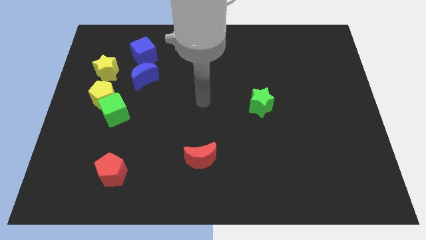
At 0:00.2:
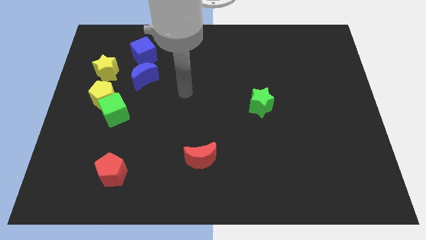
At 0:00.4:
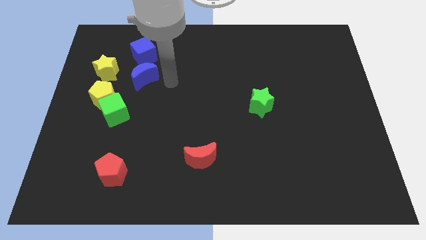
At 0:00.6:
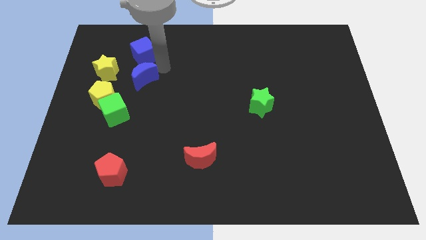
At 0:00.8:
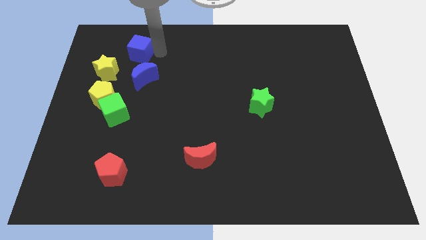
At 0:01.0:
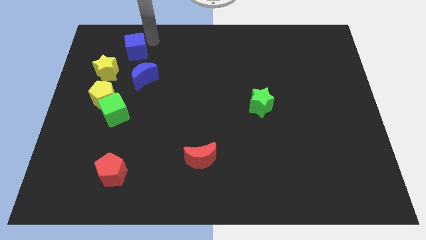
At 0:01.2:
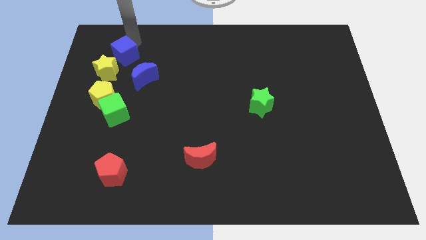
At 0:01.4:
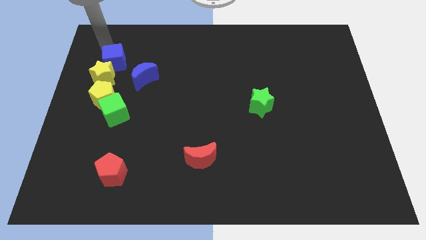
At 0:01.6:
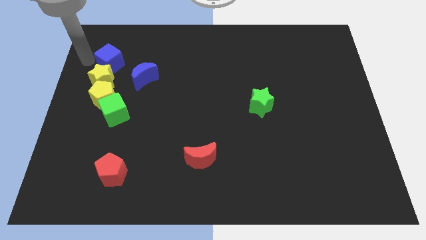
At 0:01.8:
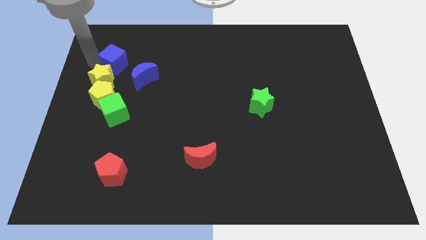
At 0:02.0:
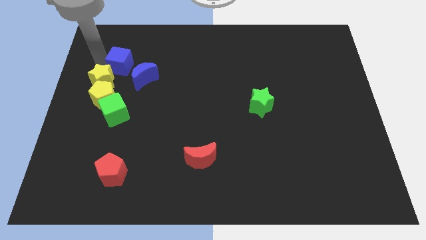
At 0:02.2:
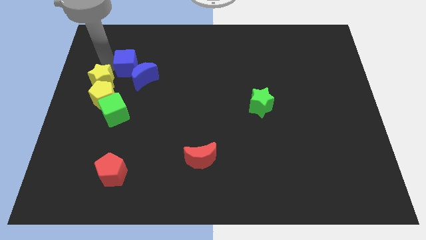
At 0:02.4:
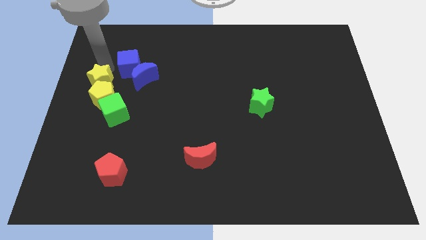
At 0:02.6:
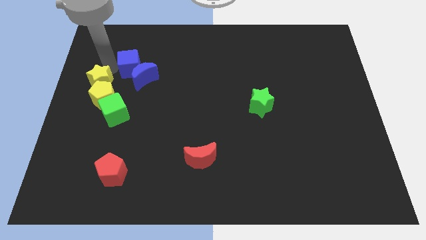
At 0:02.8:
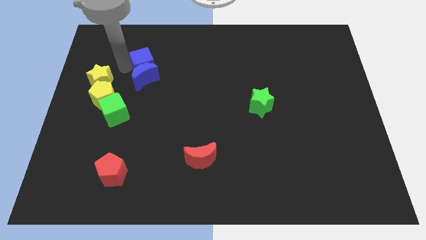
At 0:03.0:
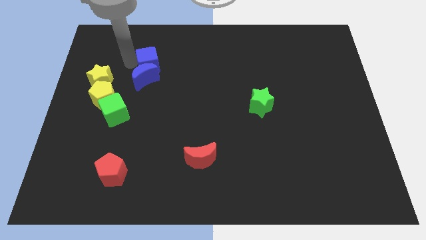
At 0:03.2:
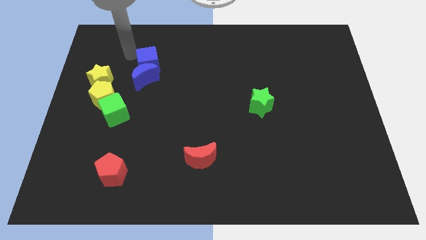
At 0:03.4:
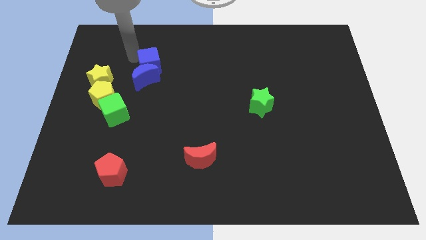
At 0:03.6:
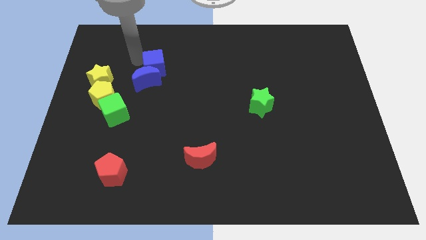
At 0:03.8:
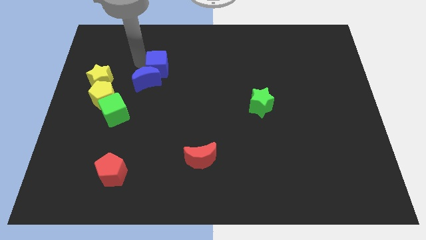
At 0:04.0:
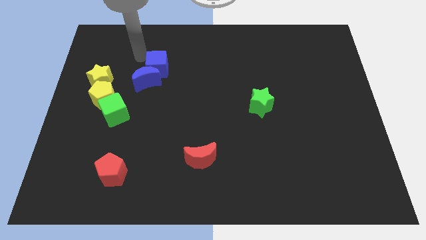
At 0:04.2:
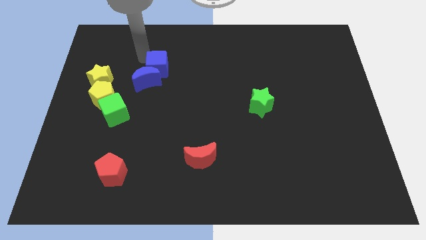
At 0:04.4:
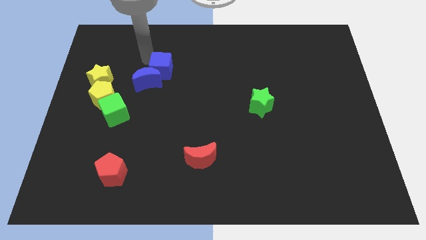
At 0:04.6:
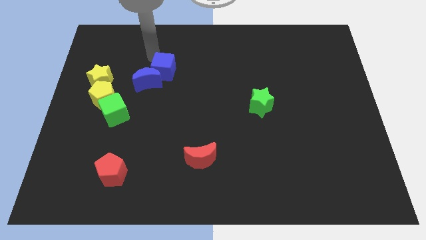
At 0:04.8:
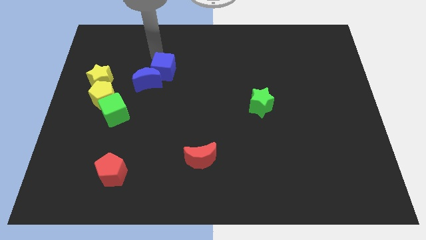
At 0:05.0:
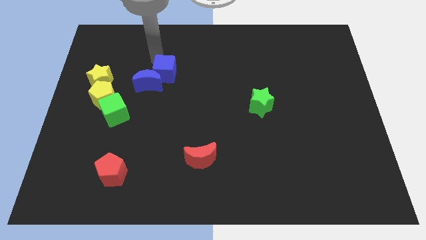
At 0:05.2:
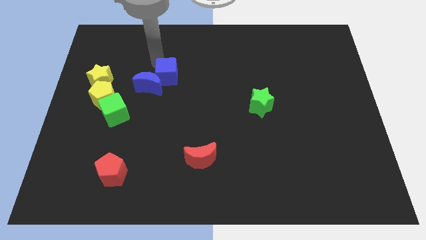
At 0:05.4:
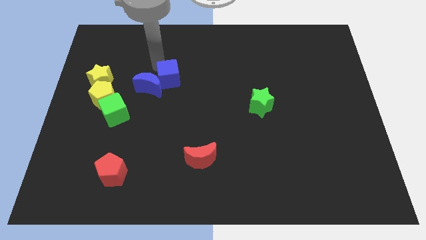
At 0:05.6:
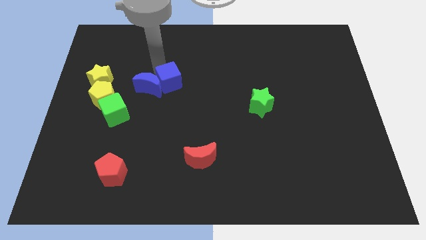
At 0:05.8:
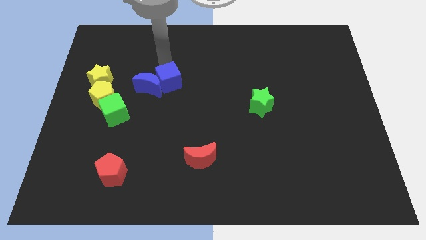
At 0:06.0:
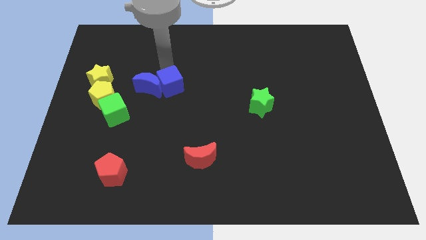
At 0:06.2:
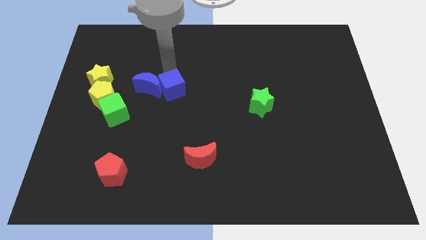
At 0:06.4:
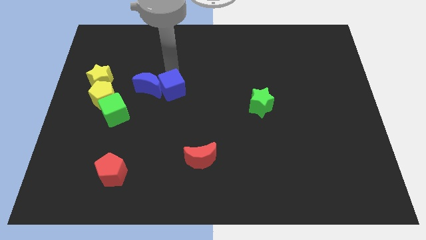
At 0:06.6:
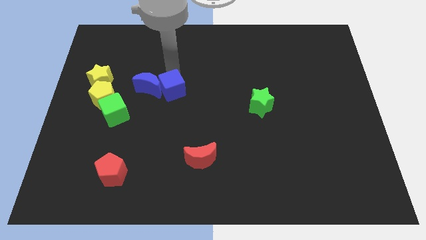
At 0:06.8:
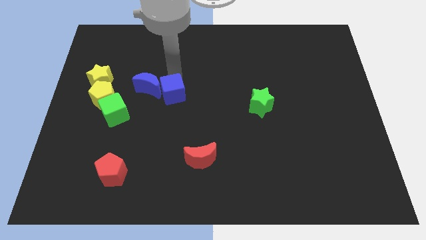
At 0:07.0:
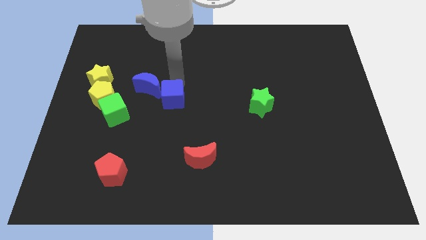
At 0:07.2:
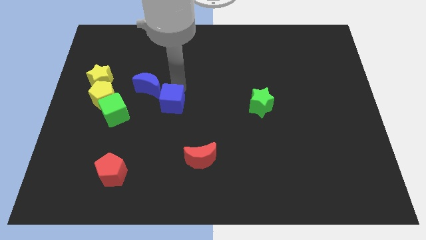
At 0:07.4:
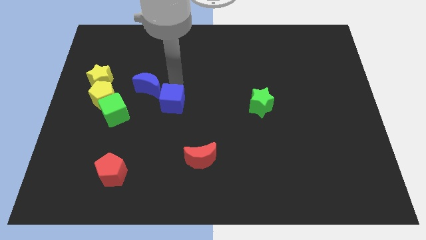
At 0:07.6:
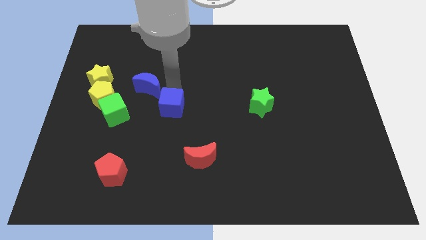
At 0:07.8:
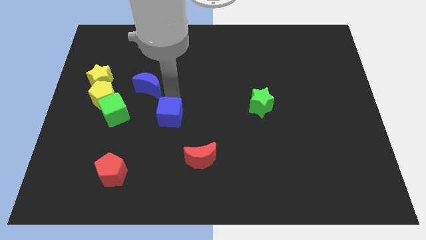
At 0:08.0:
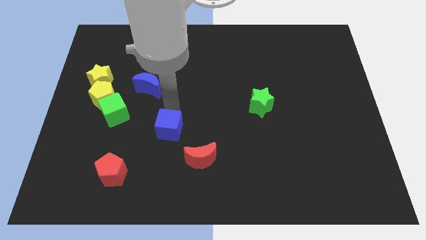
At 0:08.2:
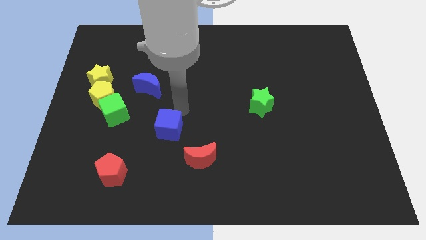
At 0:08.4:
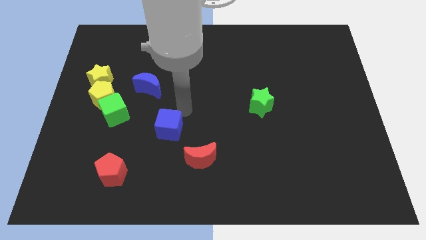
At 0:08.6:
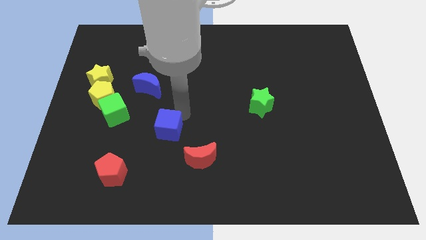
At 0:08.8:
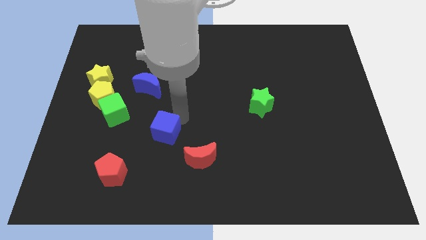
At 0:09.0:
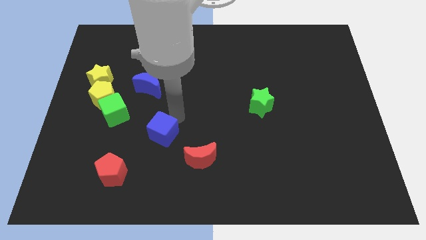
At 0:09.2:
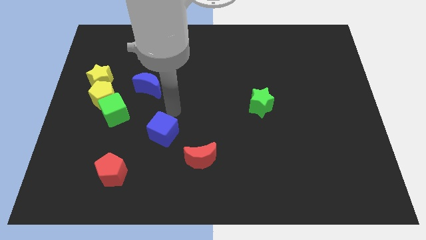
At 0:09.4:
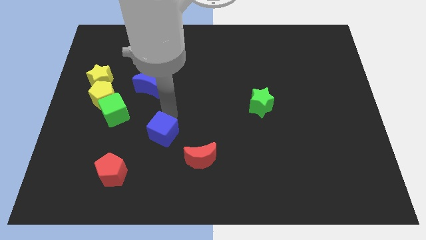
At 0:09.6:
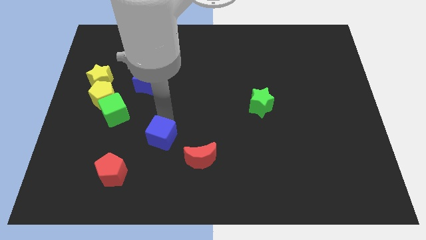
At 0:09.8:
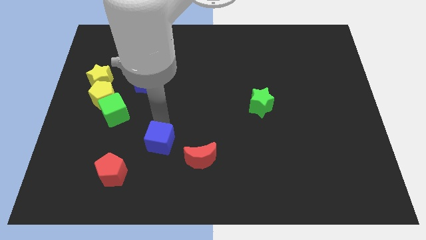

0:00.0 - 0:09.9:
push the blue cube to the left of the red moon

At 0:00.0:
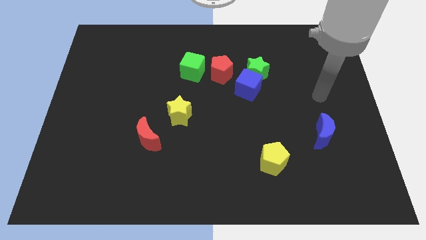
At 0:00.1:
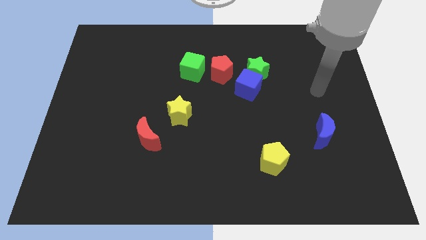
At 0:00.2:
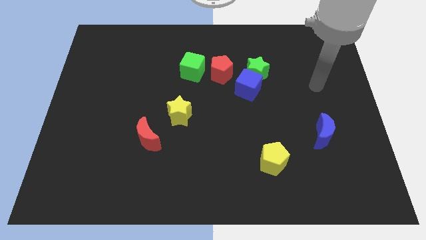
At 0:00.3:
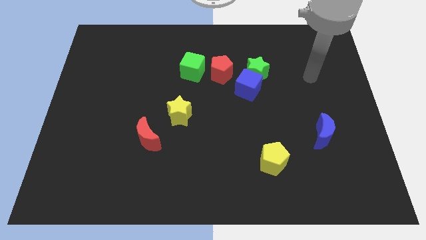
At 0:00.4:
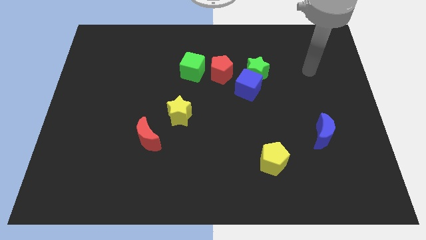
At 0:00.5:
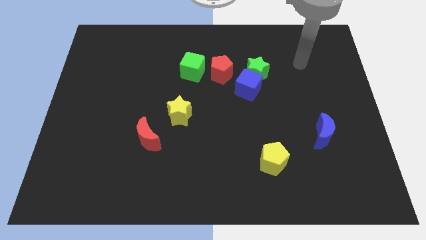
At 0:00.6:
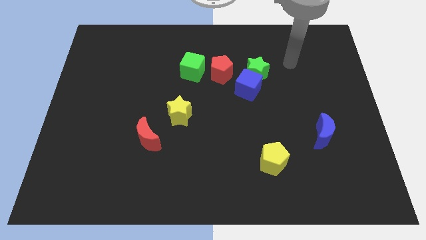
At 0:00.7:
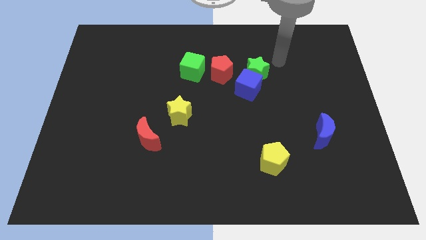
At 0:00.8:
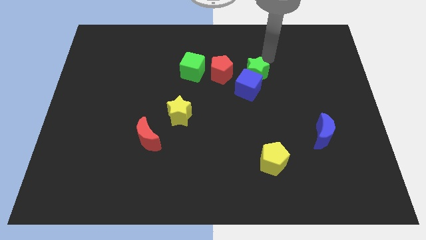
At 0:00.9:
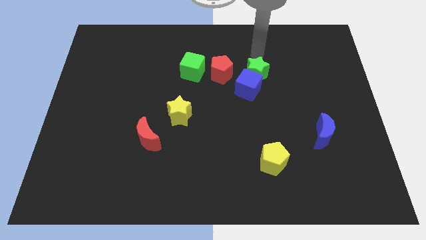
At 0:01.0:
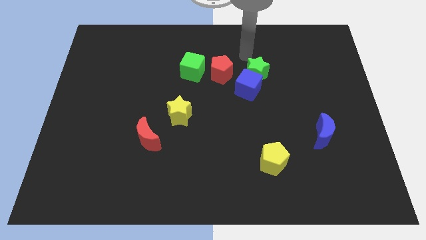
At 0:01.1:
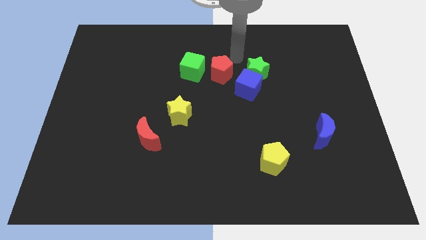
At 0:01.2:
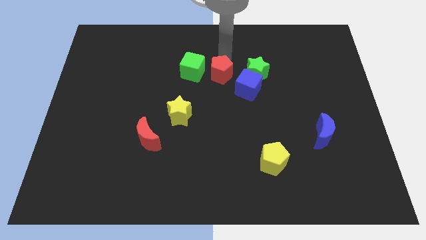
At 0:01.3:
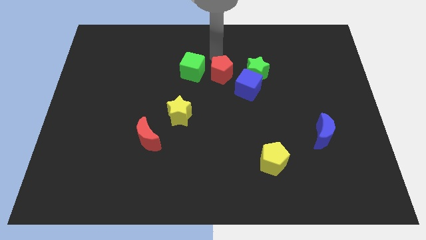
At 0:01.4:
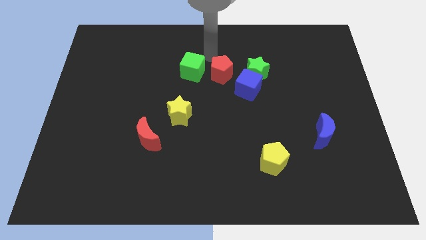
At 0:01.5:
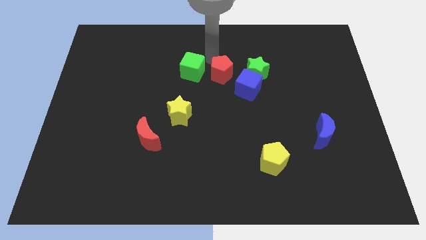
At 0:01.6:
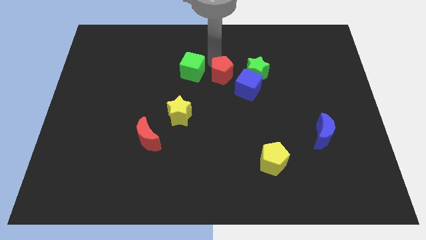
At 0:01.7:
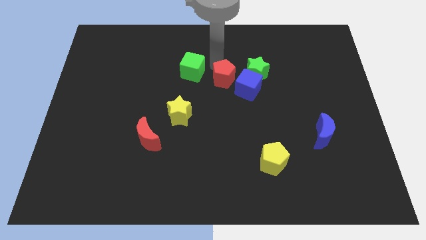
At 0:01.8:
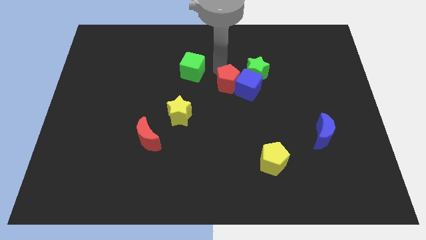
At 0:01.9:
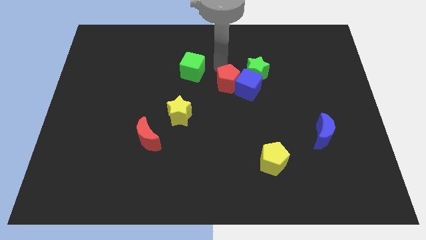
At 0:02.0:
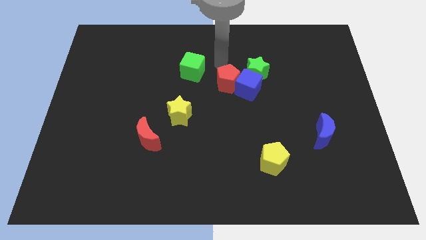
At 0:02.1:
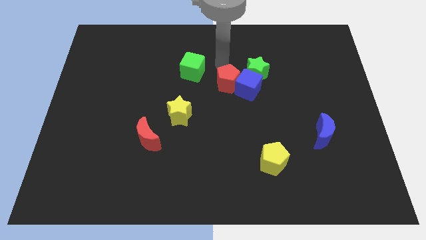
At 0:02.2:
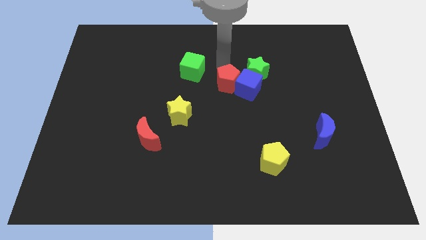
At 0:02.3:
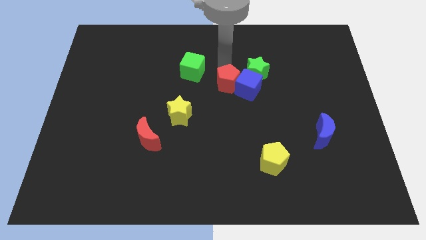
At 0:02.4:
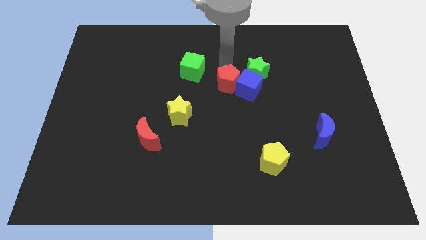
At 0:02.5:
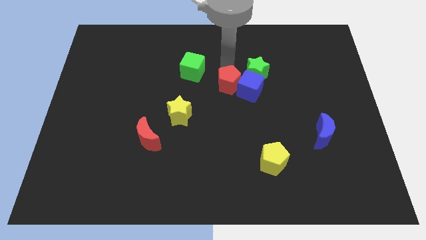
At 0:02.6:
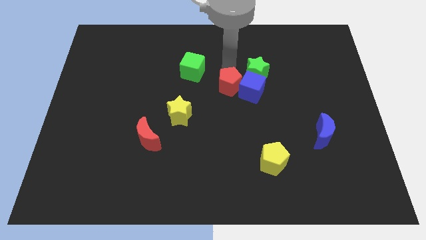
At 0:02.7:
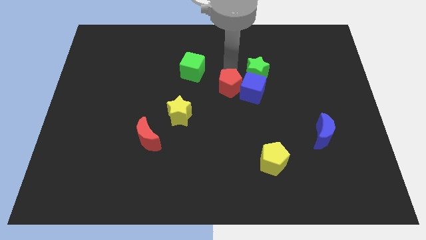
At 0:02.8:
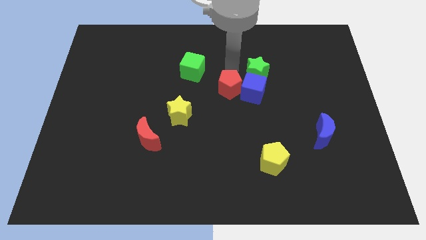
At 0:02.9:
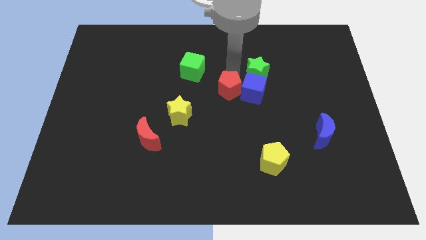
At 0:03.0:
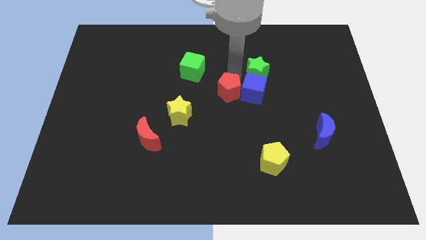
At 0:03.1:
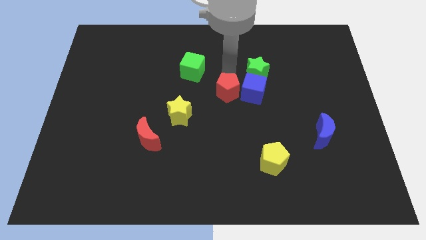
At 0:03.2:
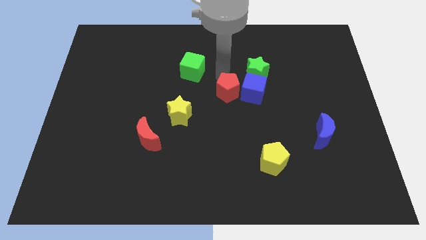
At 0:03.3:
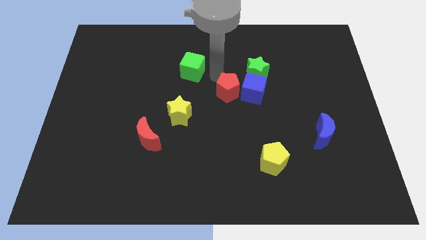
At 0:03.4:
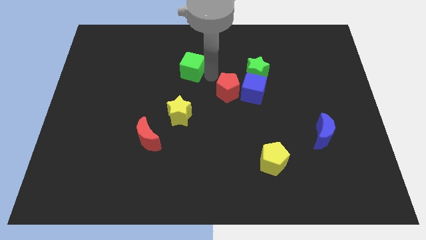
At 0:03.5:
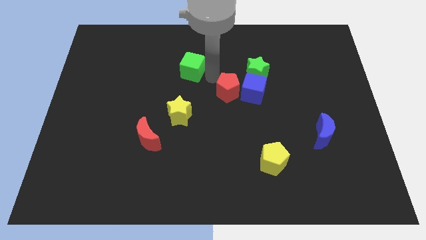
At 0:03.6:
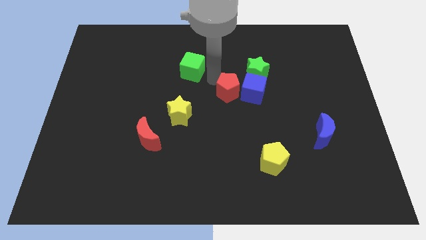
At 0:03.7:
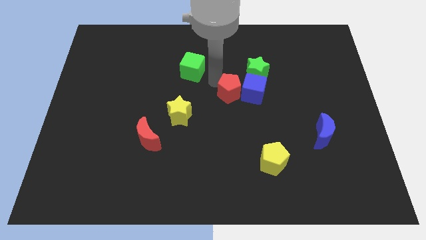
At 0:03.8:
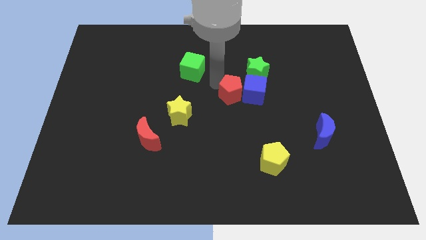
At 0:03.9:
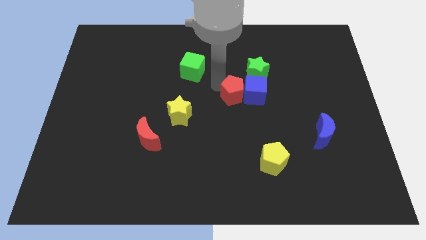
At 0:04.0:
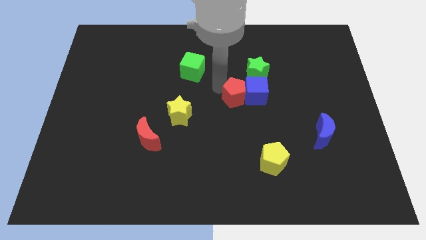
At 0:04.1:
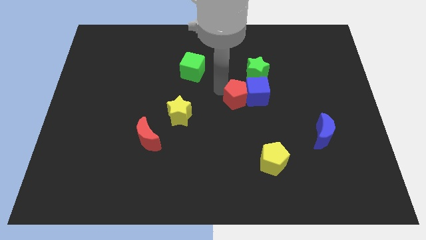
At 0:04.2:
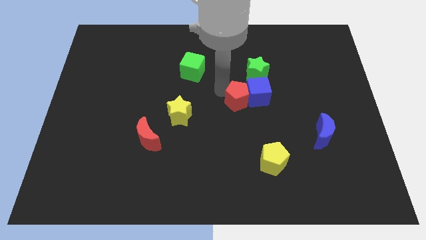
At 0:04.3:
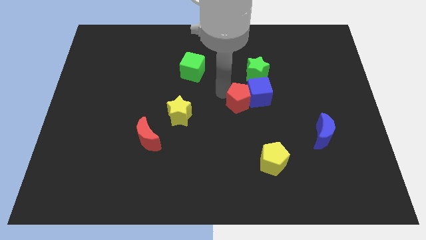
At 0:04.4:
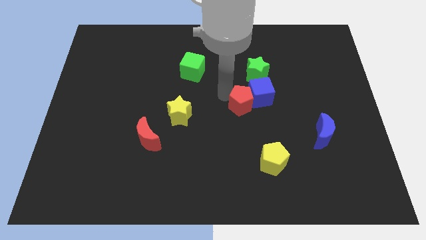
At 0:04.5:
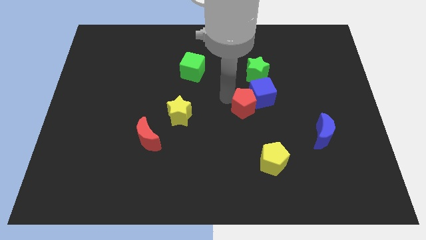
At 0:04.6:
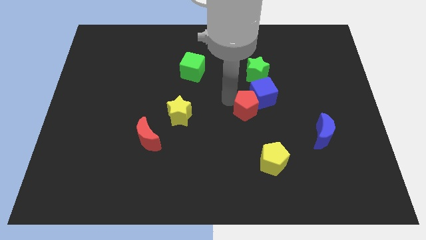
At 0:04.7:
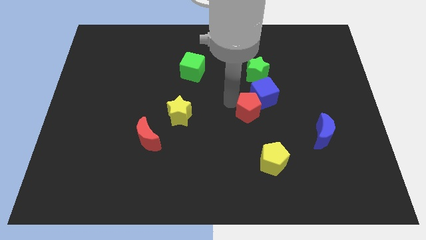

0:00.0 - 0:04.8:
slide the red pentagon to the top side of the yellow pentagon
